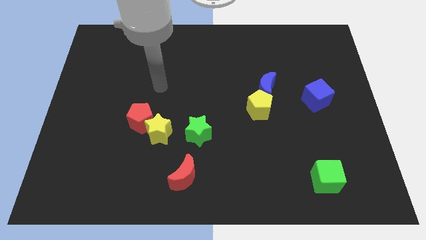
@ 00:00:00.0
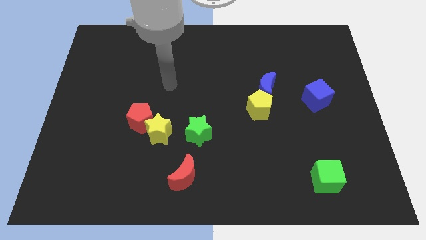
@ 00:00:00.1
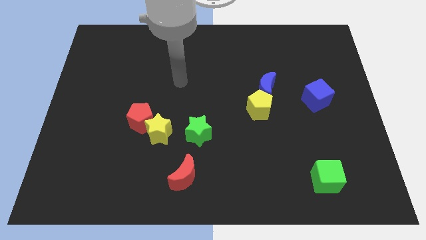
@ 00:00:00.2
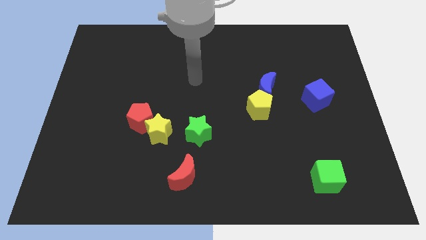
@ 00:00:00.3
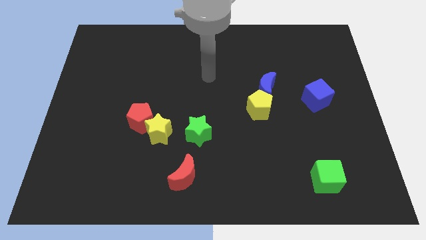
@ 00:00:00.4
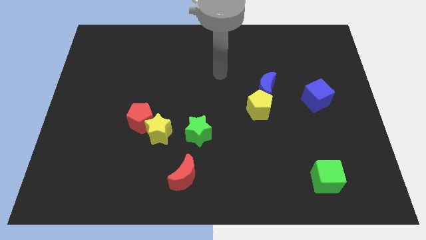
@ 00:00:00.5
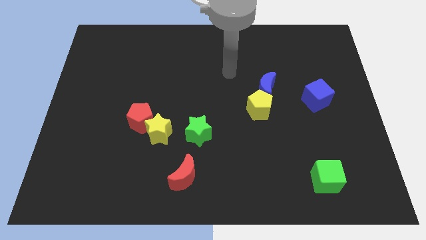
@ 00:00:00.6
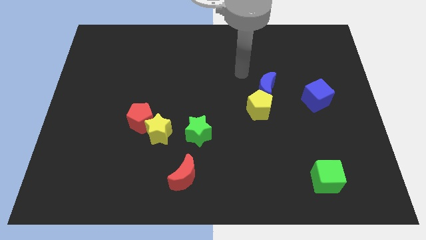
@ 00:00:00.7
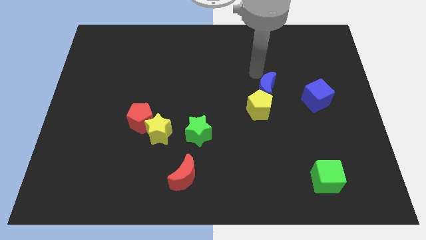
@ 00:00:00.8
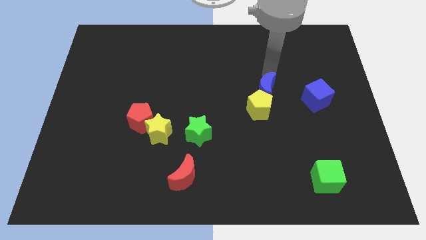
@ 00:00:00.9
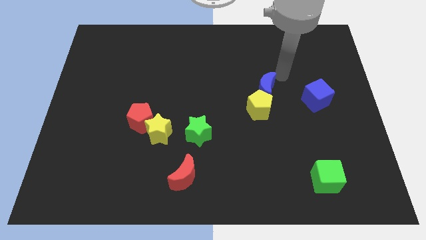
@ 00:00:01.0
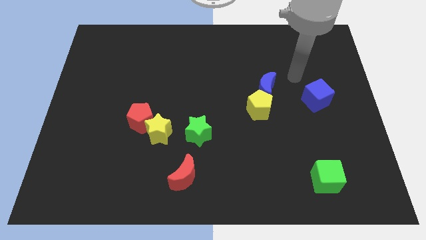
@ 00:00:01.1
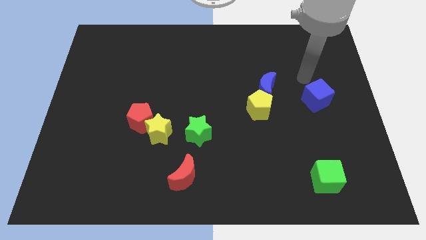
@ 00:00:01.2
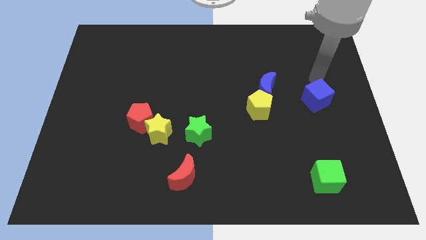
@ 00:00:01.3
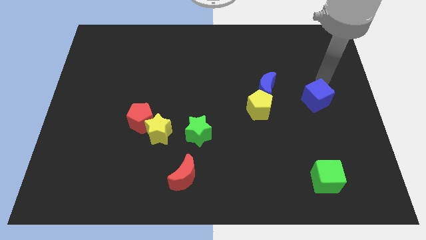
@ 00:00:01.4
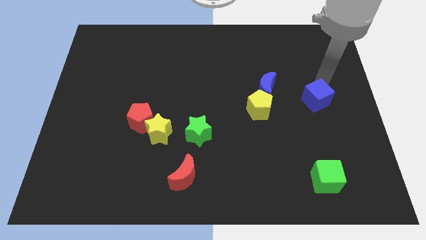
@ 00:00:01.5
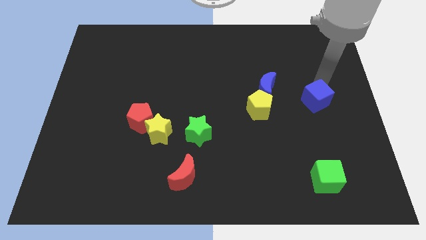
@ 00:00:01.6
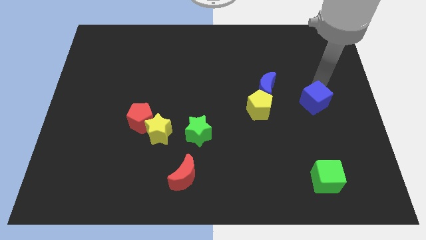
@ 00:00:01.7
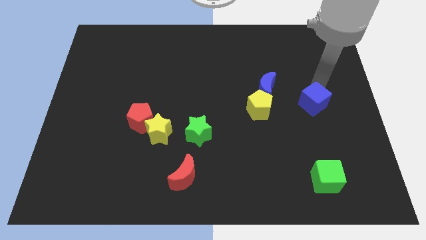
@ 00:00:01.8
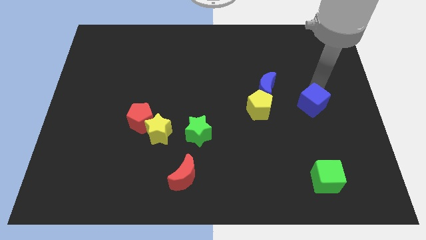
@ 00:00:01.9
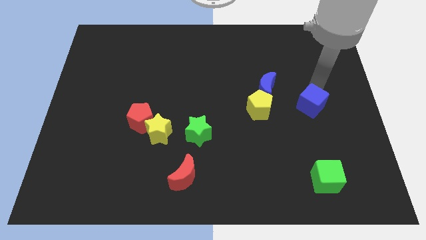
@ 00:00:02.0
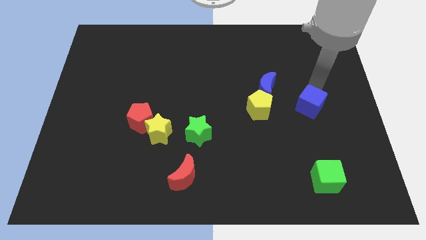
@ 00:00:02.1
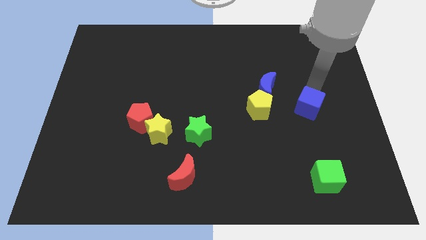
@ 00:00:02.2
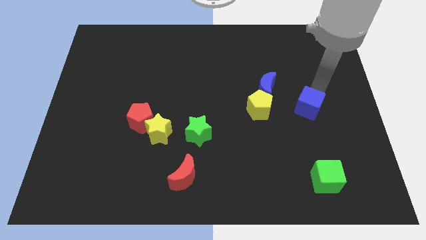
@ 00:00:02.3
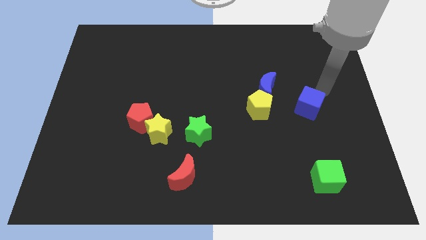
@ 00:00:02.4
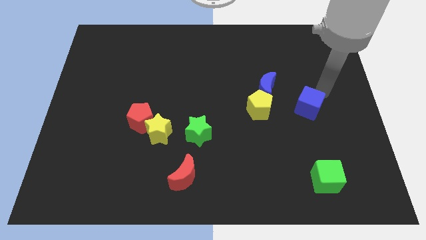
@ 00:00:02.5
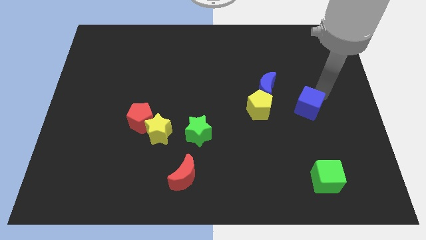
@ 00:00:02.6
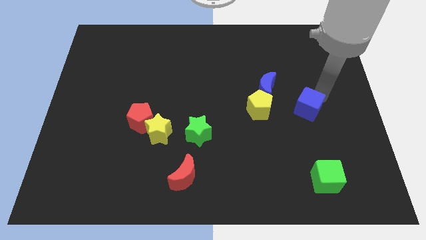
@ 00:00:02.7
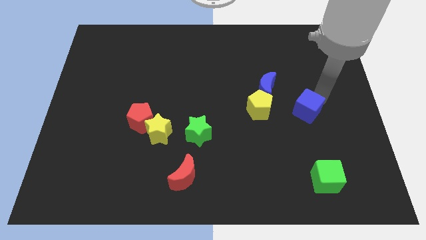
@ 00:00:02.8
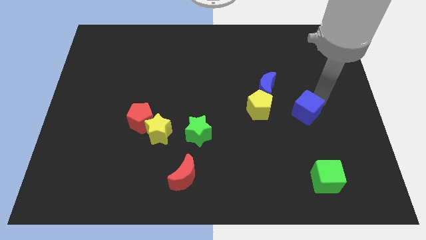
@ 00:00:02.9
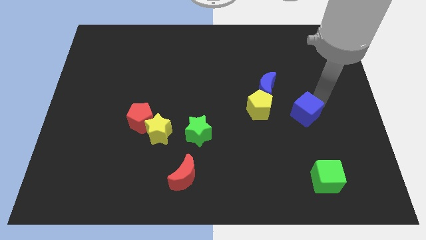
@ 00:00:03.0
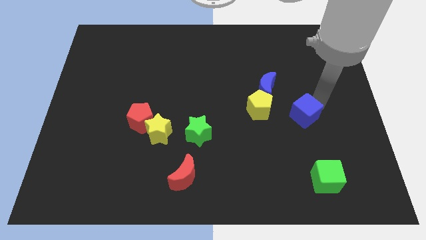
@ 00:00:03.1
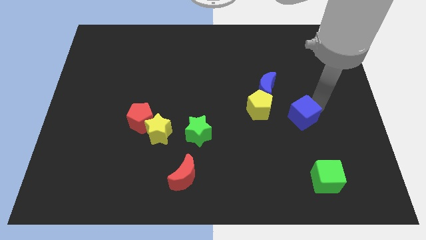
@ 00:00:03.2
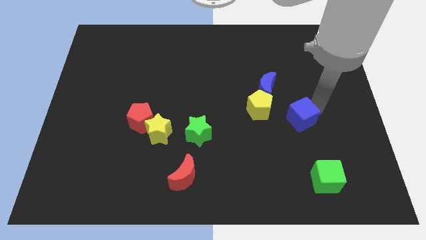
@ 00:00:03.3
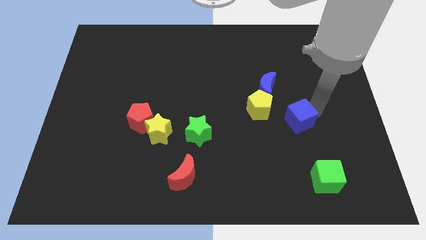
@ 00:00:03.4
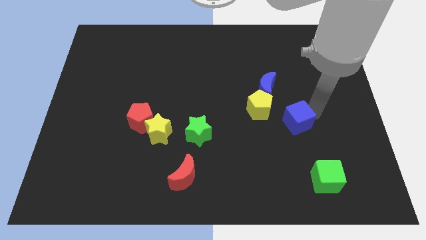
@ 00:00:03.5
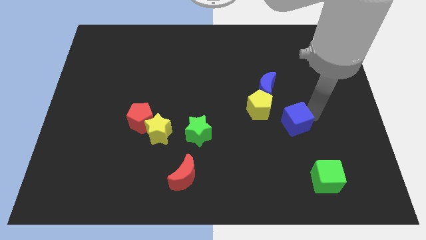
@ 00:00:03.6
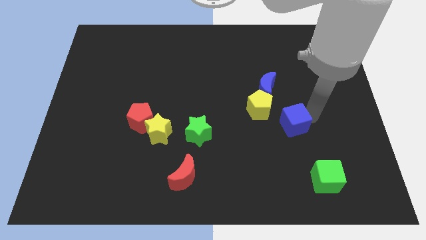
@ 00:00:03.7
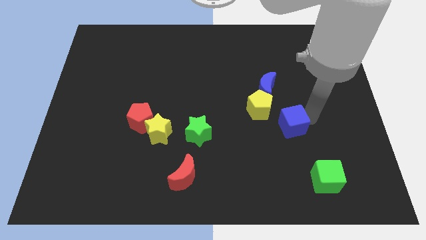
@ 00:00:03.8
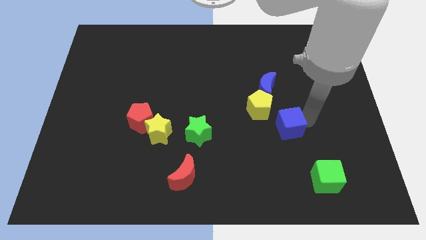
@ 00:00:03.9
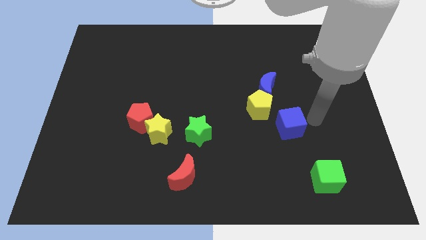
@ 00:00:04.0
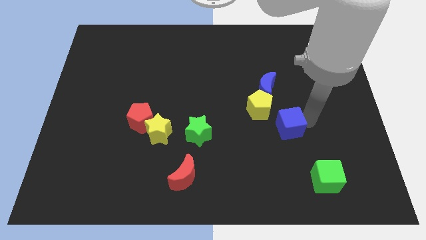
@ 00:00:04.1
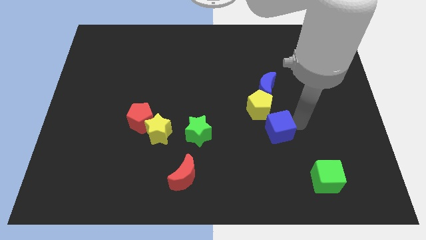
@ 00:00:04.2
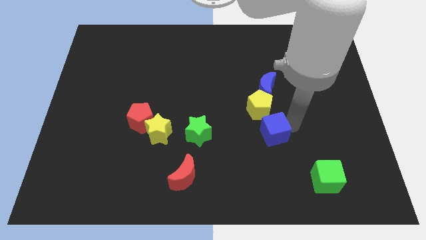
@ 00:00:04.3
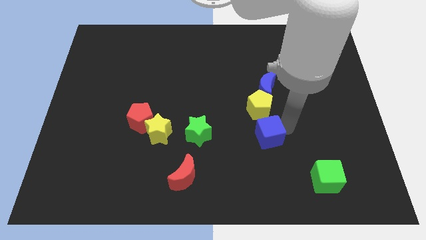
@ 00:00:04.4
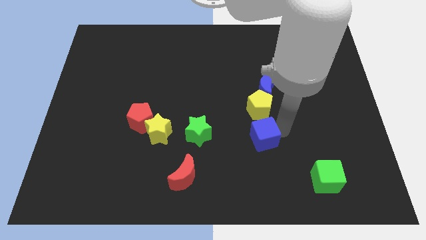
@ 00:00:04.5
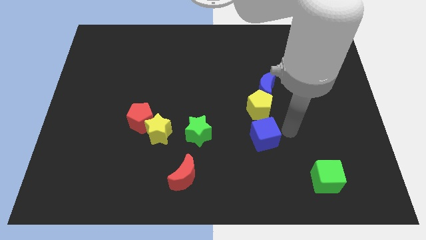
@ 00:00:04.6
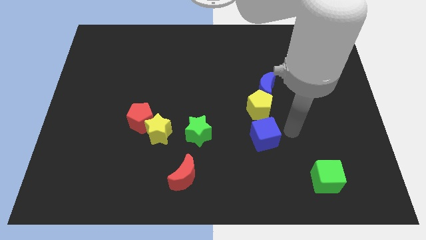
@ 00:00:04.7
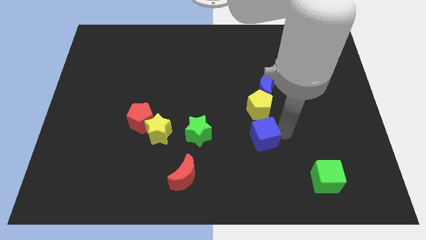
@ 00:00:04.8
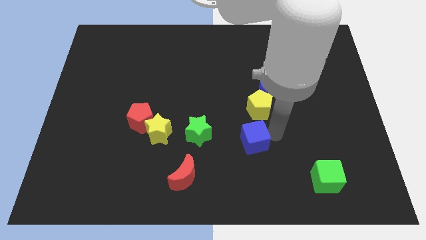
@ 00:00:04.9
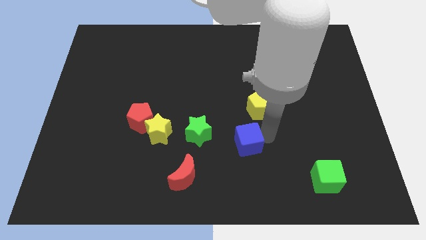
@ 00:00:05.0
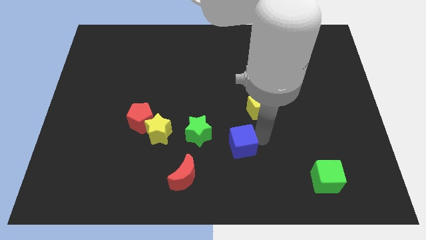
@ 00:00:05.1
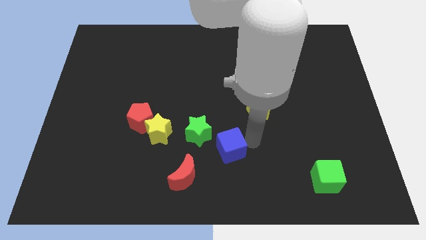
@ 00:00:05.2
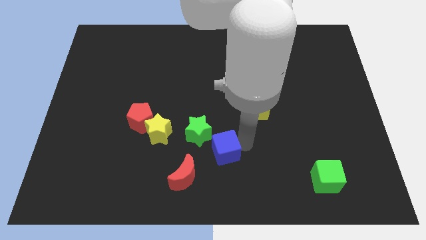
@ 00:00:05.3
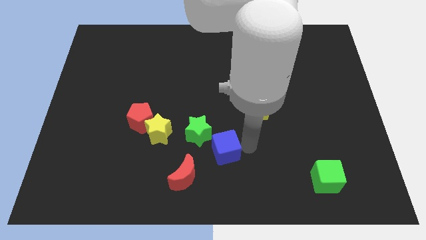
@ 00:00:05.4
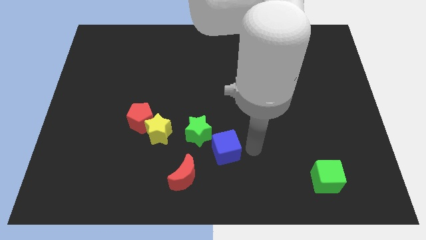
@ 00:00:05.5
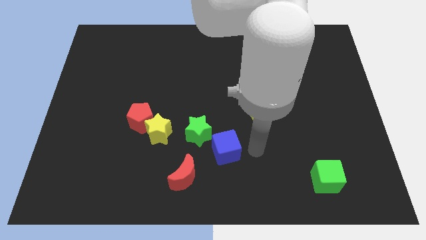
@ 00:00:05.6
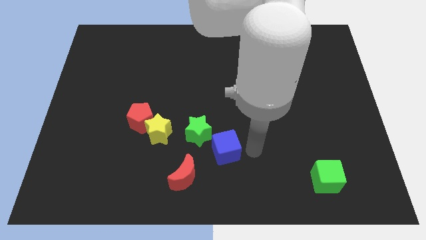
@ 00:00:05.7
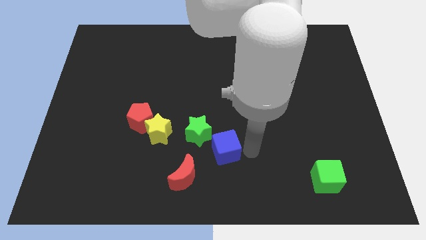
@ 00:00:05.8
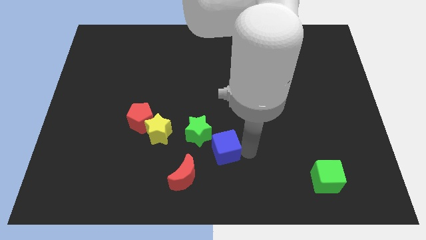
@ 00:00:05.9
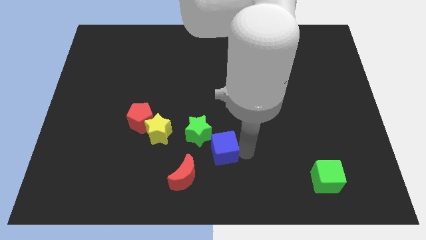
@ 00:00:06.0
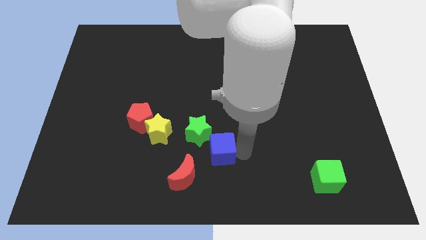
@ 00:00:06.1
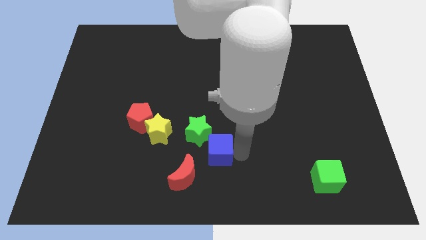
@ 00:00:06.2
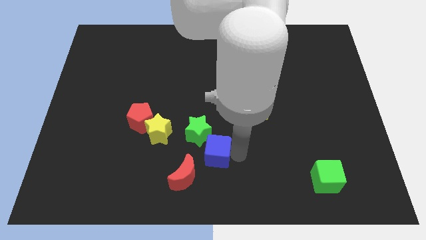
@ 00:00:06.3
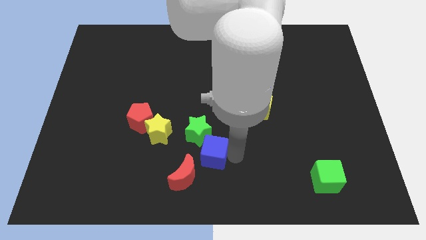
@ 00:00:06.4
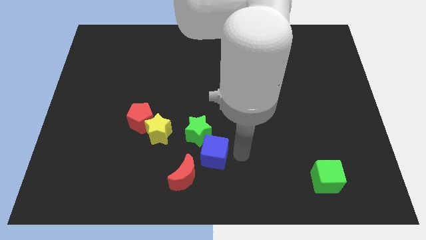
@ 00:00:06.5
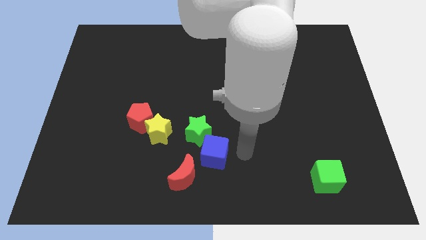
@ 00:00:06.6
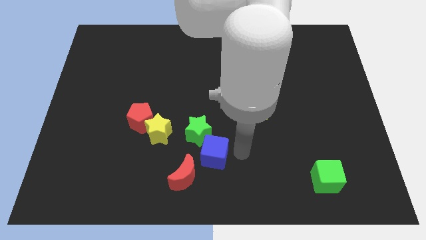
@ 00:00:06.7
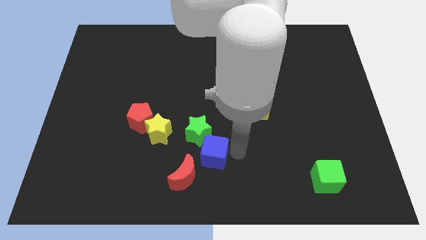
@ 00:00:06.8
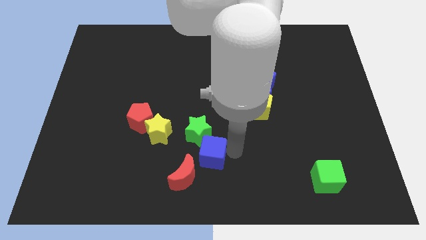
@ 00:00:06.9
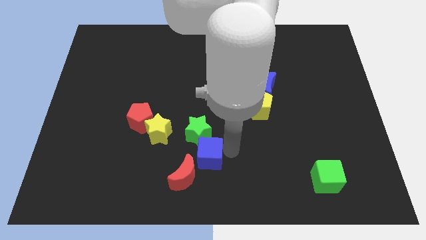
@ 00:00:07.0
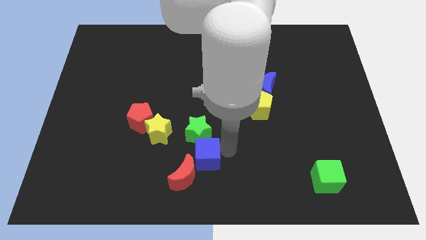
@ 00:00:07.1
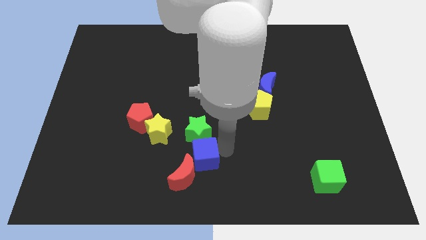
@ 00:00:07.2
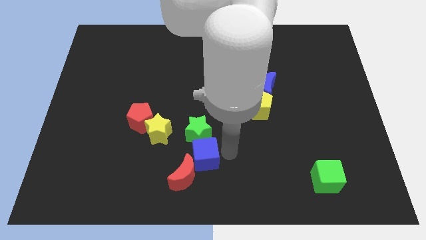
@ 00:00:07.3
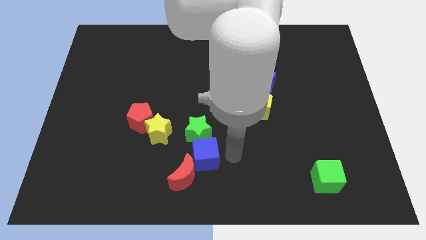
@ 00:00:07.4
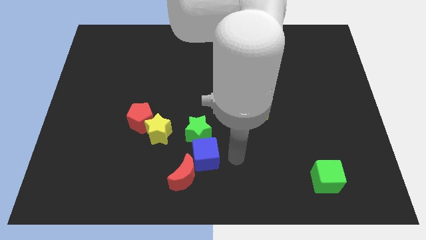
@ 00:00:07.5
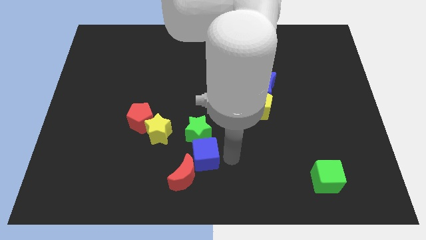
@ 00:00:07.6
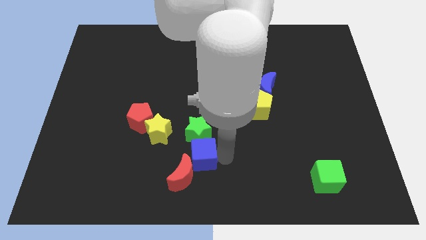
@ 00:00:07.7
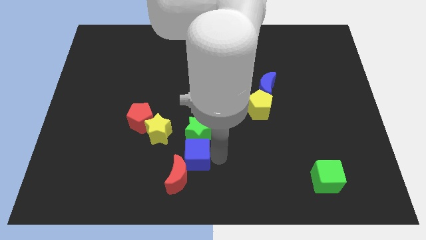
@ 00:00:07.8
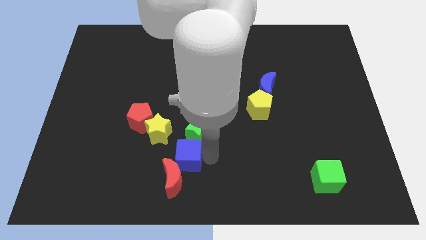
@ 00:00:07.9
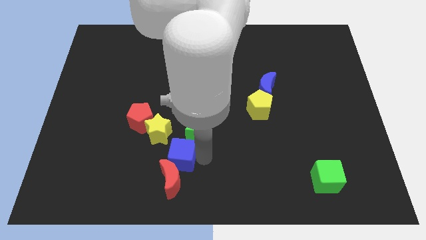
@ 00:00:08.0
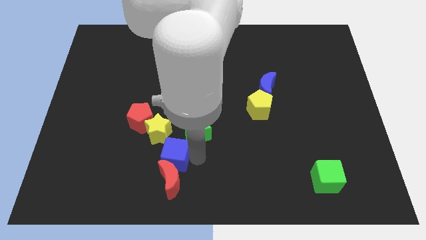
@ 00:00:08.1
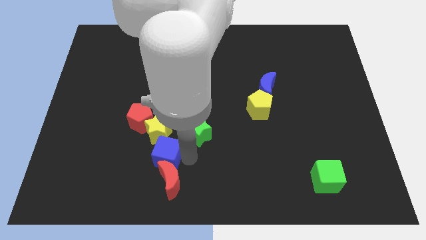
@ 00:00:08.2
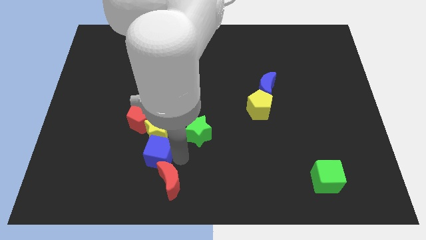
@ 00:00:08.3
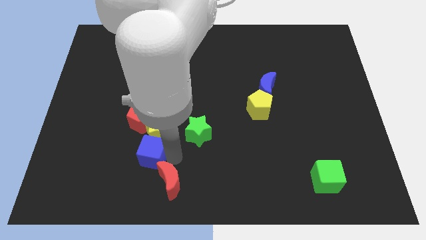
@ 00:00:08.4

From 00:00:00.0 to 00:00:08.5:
push the blue cube to the left of the green star
